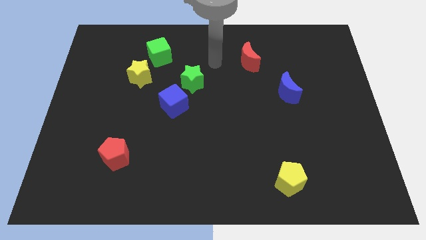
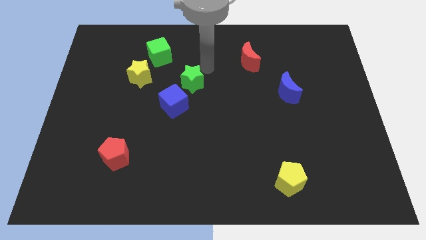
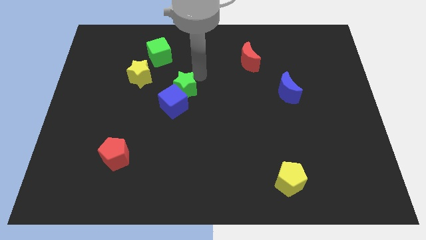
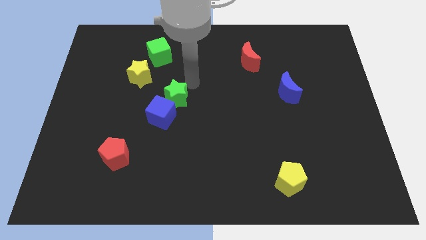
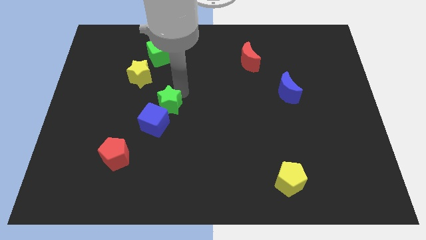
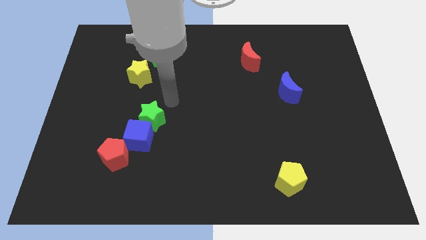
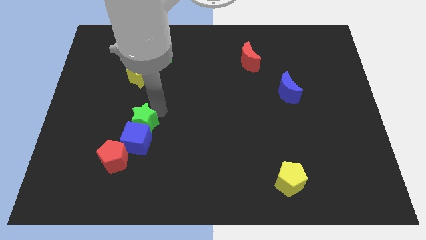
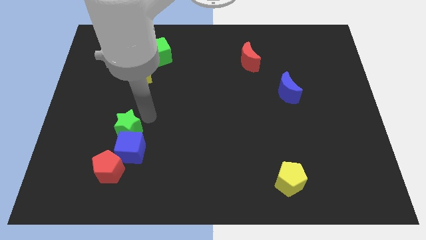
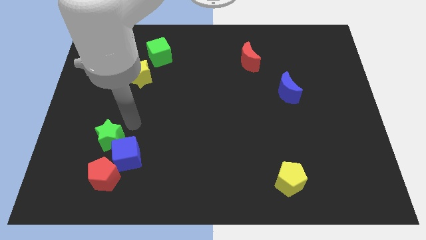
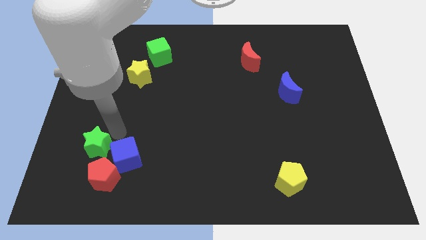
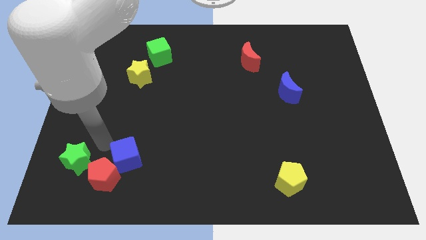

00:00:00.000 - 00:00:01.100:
pull the blue cube apart from the green star

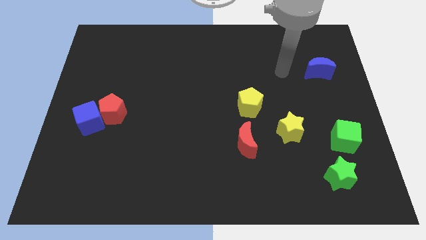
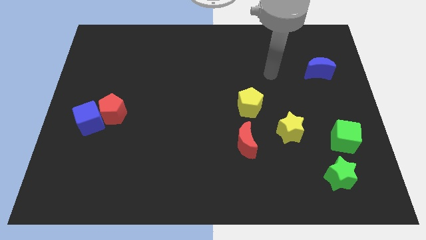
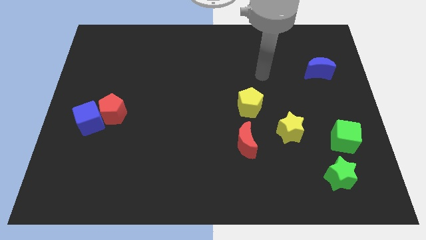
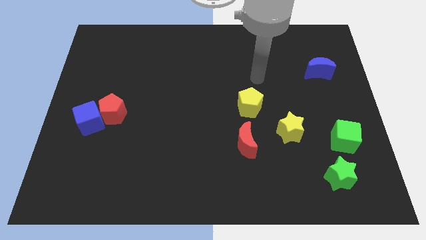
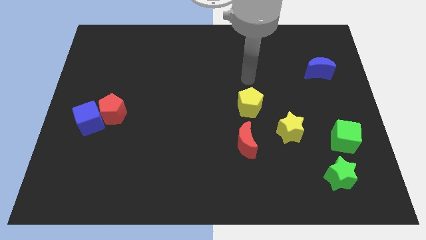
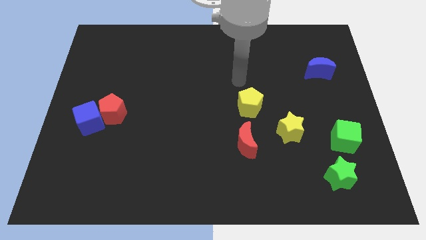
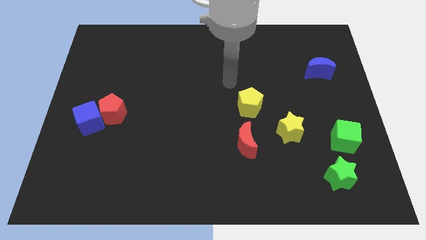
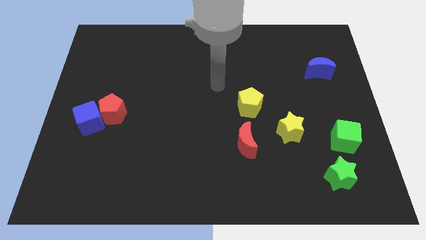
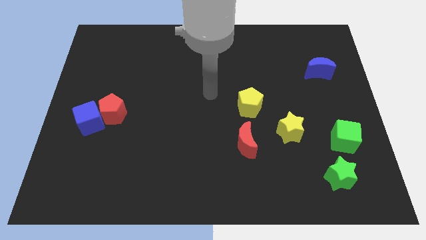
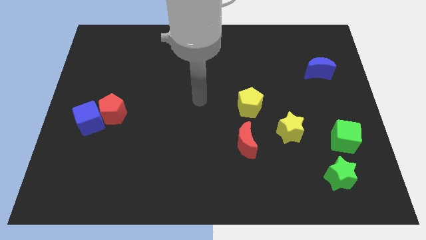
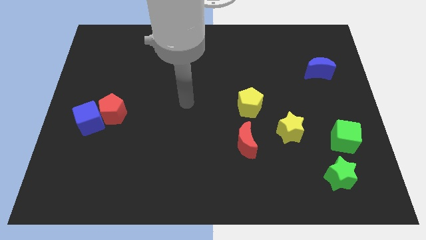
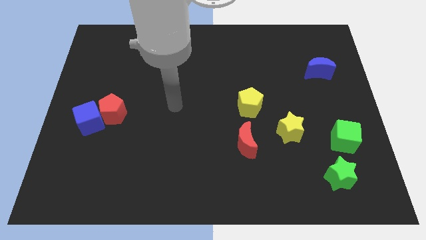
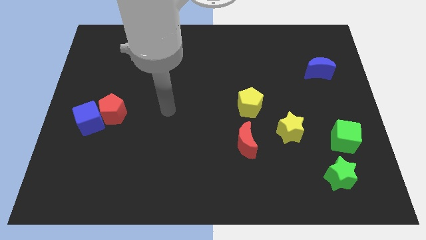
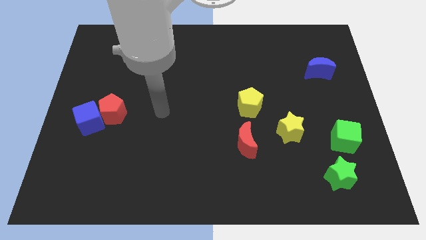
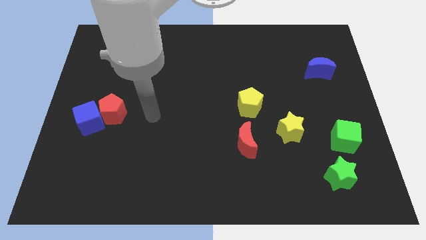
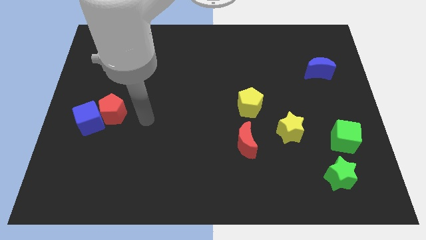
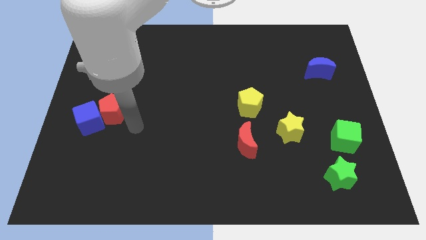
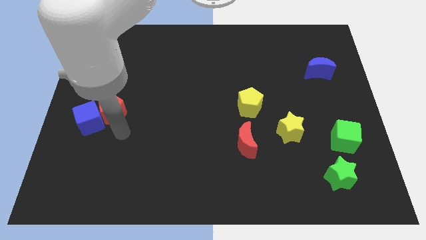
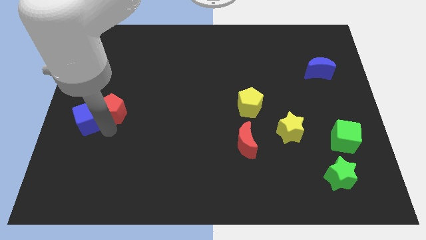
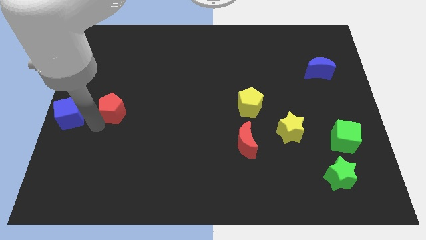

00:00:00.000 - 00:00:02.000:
pull the red pentagon apart from the blue cube

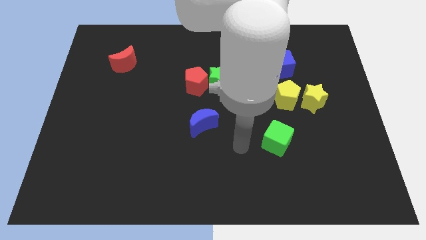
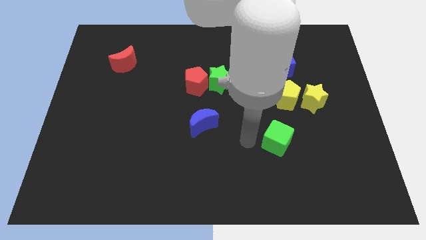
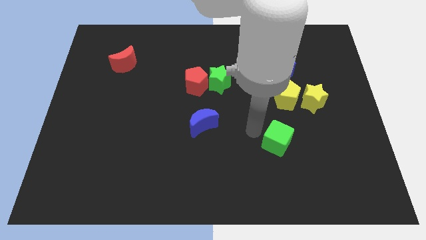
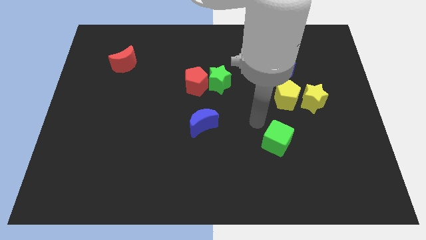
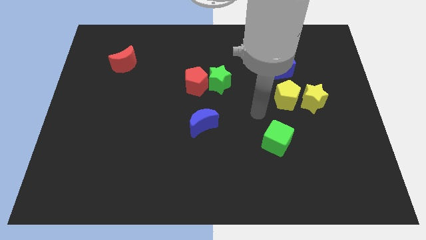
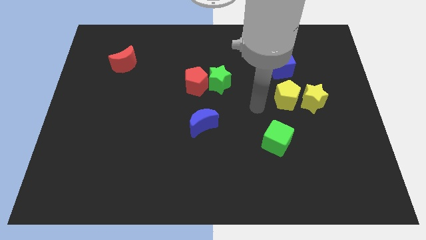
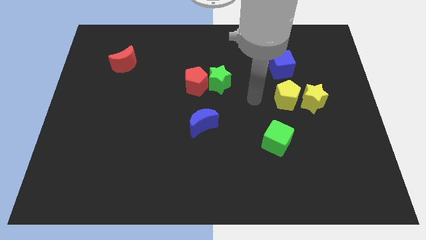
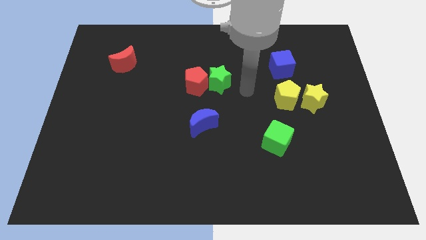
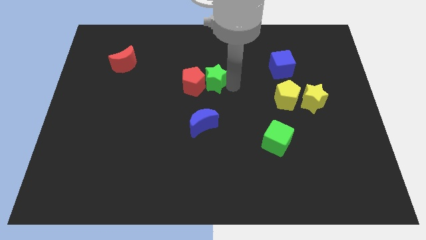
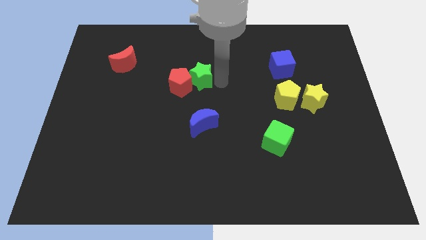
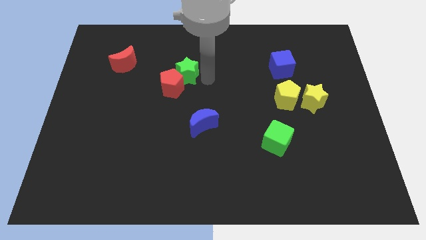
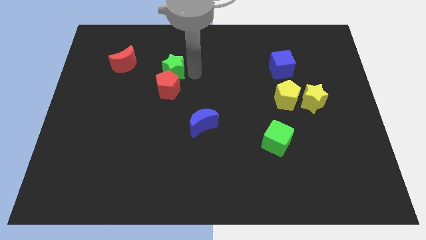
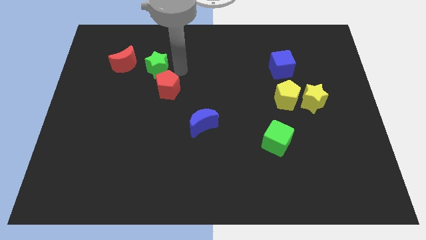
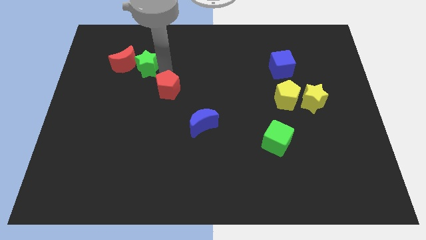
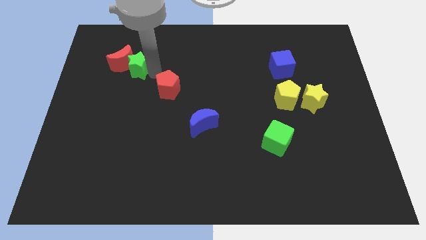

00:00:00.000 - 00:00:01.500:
move the red pentagon away from the green star

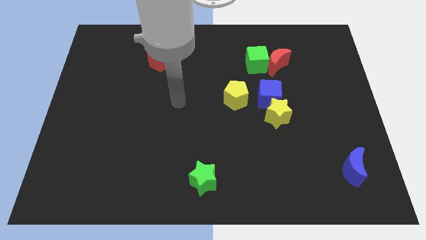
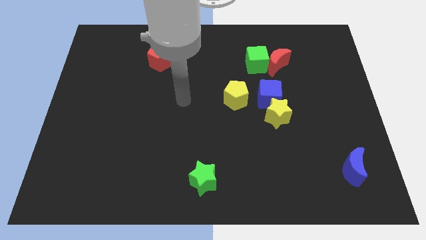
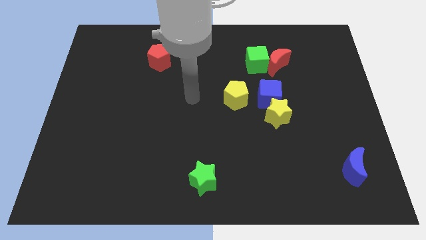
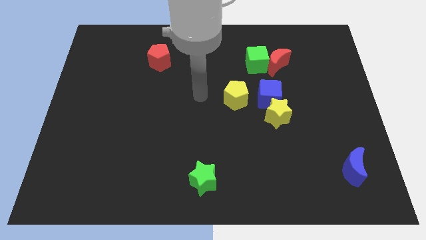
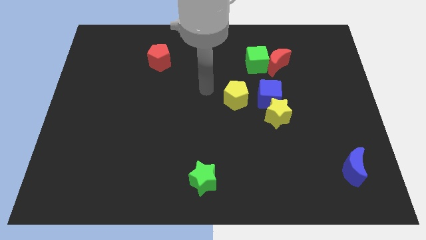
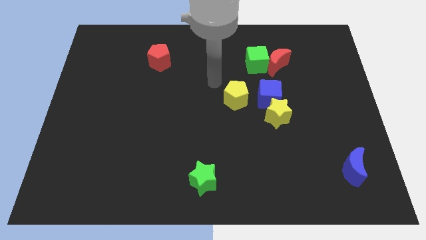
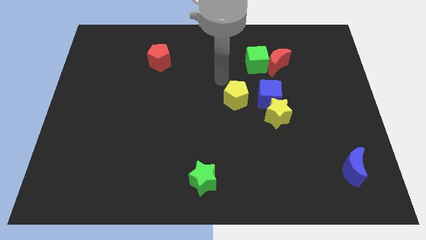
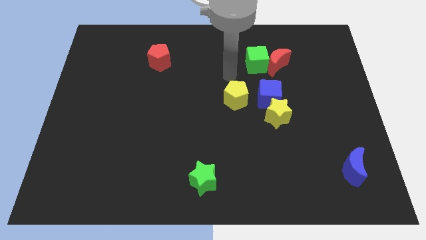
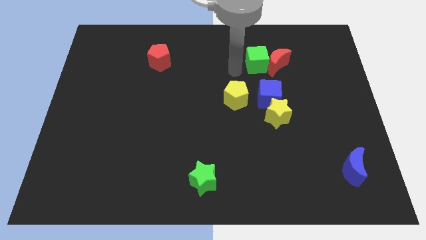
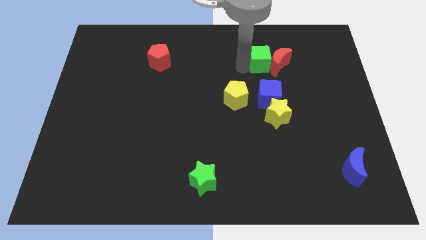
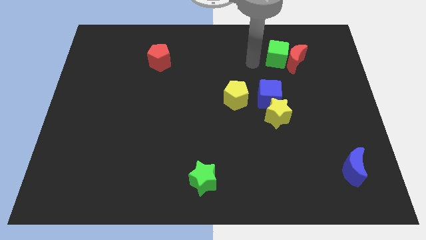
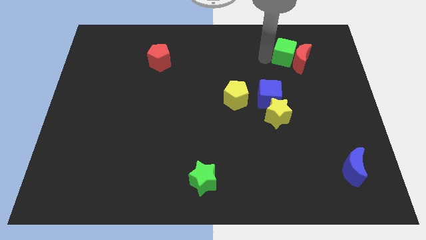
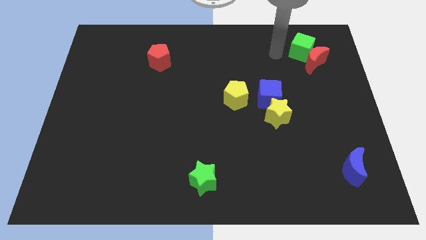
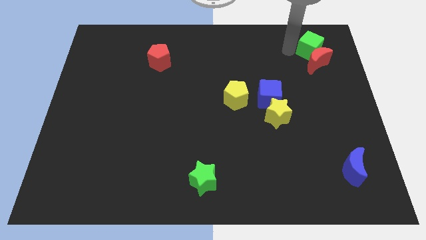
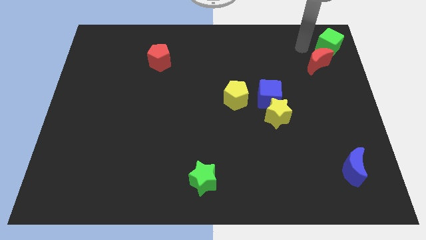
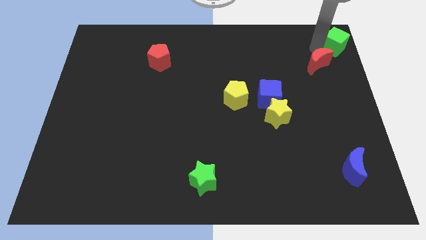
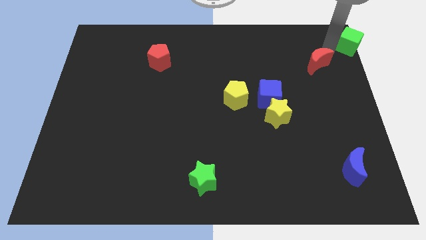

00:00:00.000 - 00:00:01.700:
pull the red moon apart from the green cube

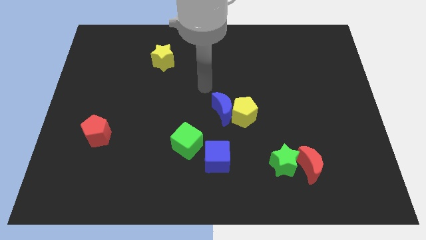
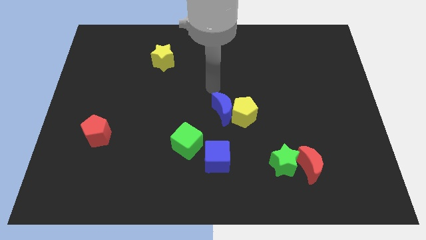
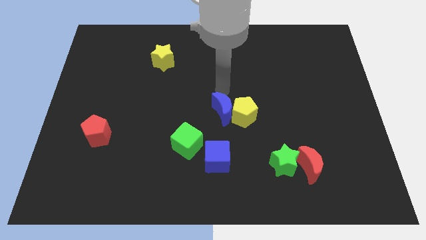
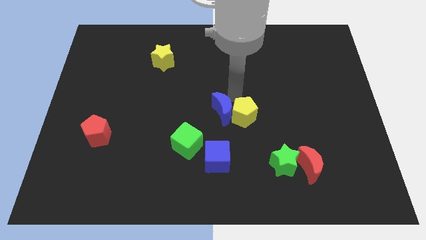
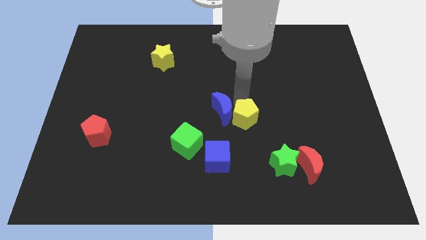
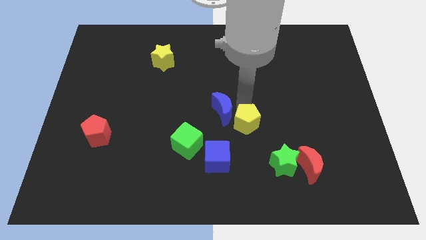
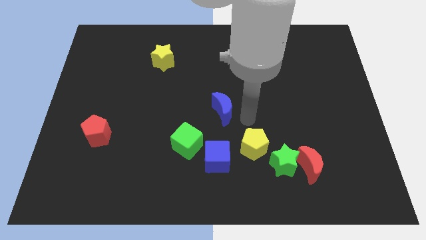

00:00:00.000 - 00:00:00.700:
pull the blue moon apart from the yellow pentagon

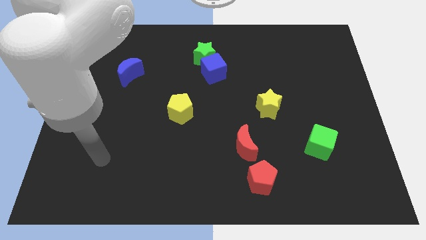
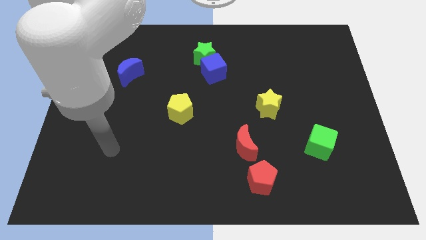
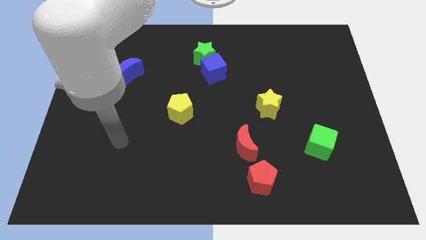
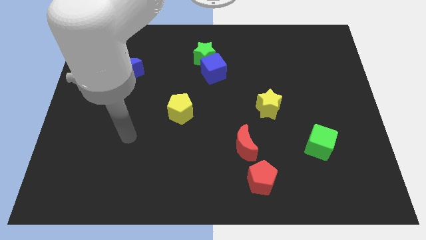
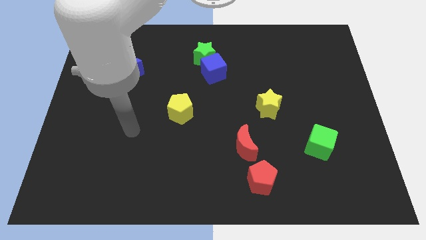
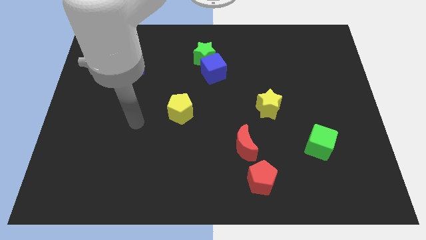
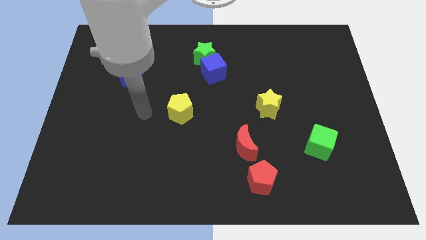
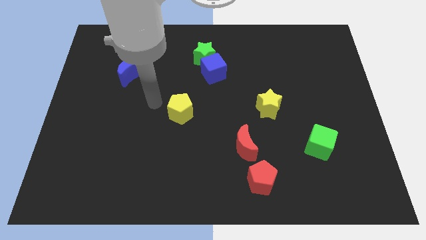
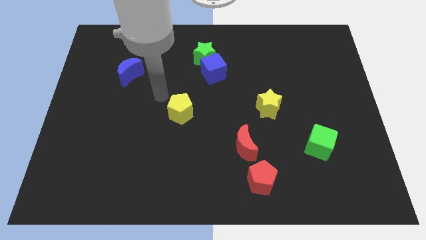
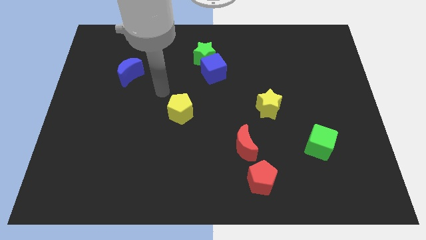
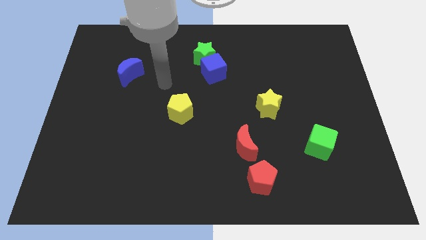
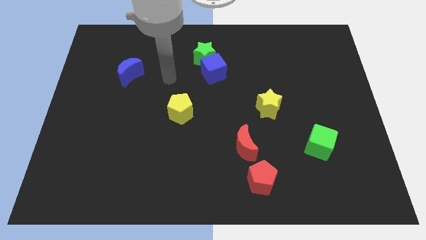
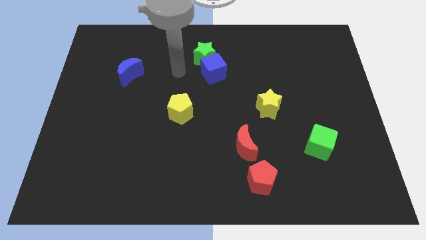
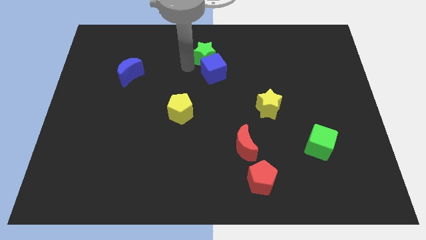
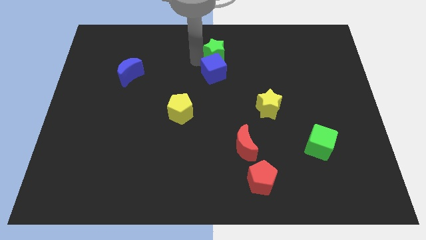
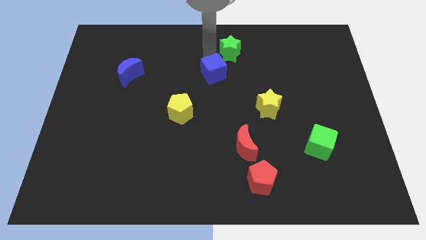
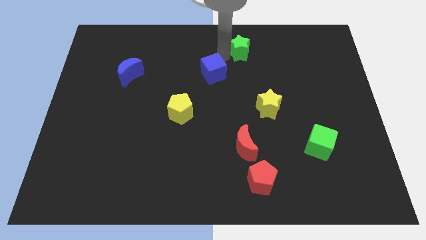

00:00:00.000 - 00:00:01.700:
separate the blue cube from the green star

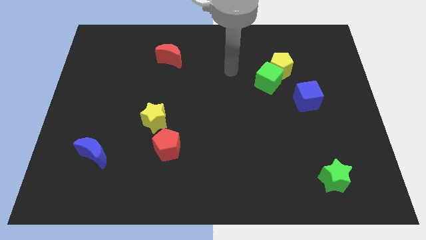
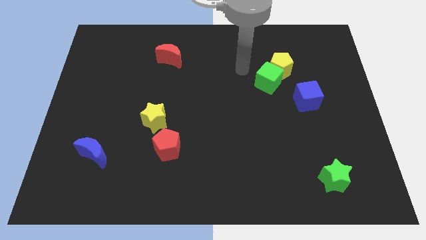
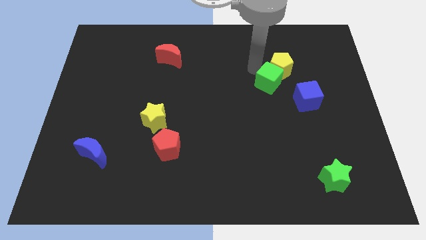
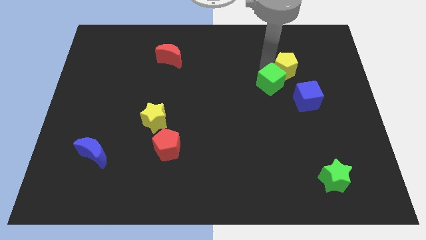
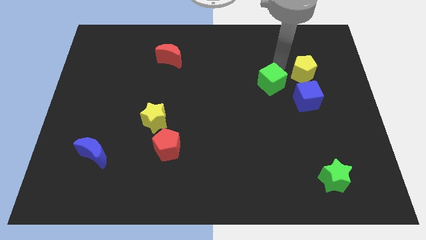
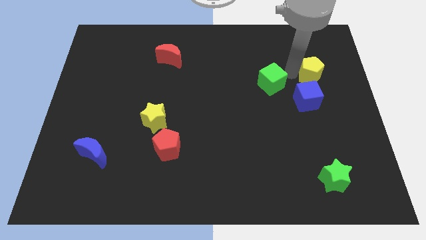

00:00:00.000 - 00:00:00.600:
move the green cube away from the yellow pentagon
